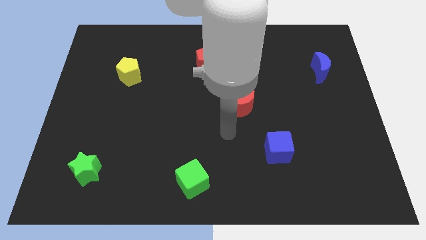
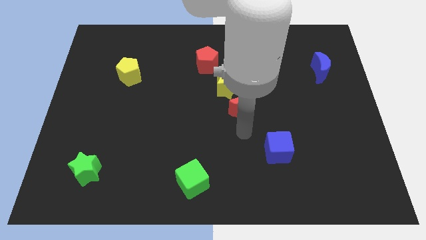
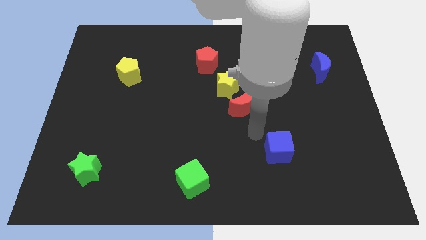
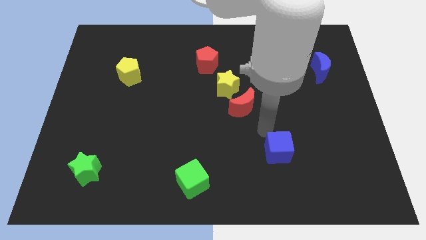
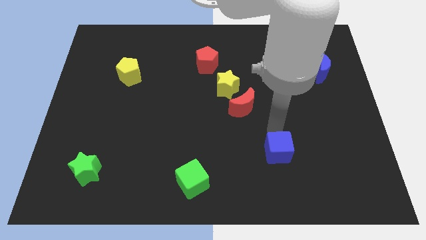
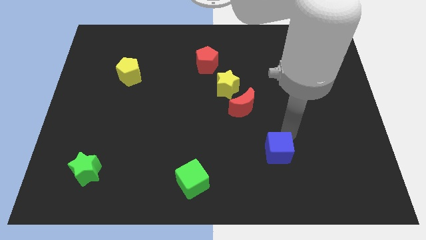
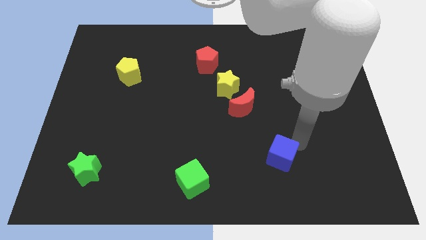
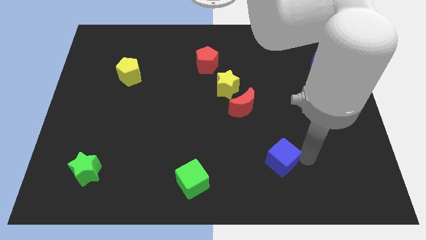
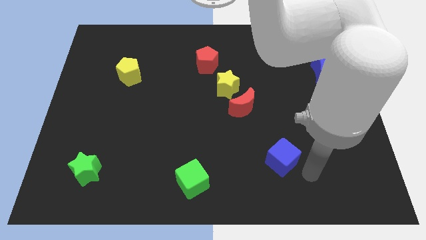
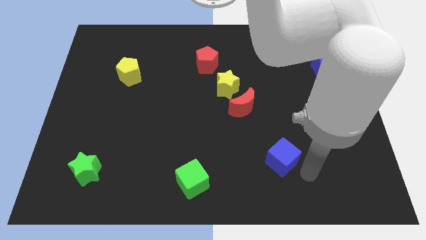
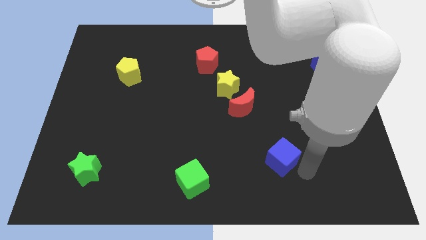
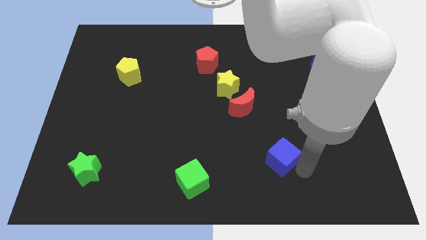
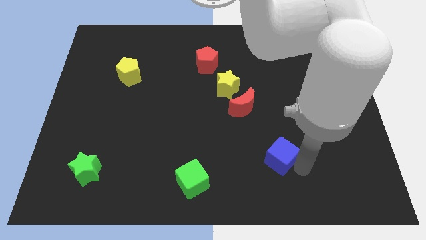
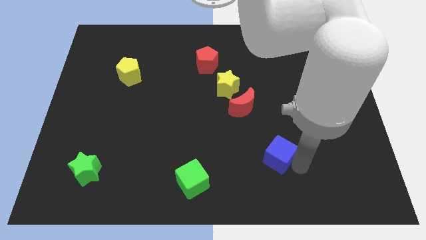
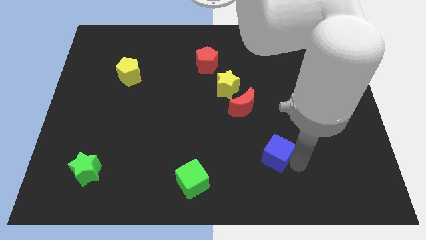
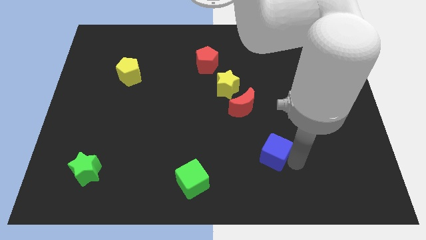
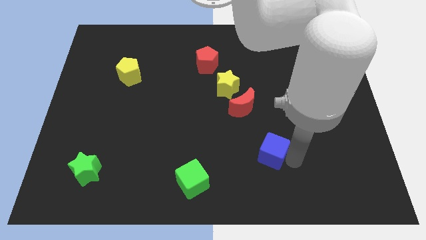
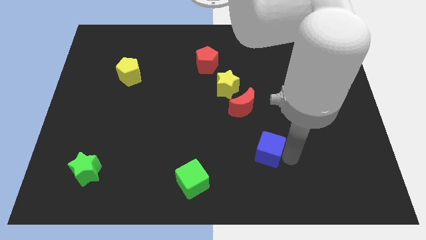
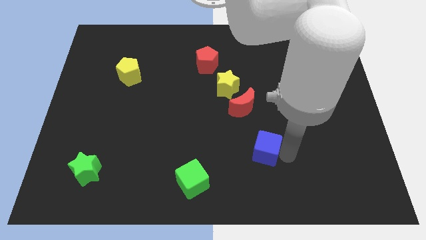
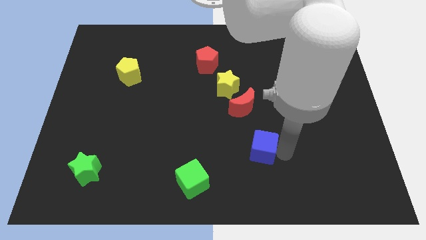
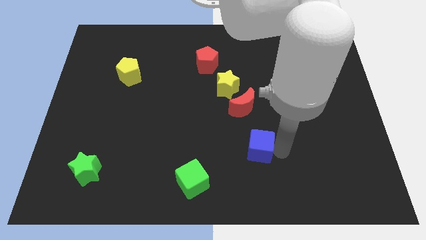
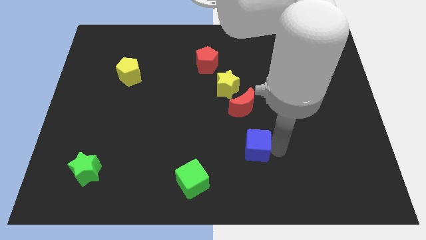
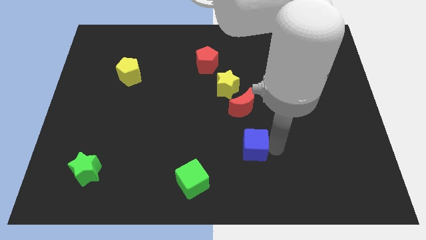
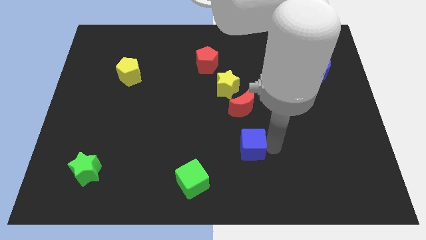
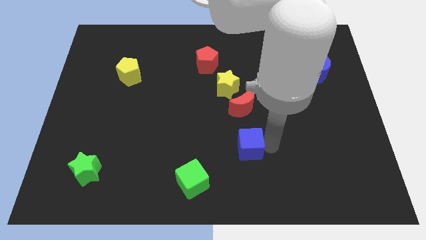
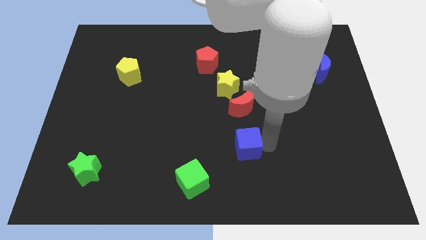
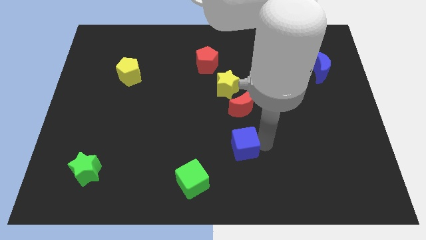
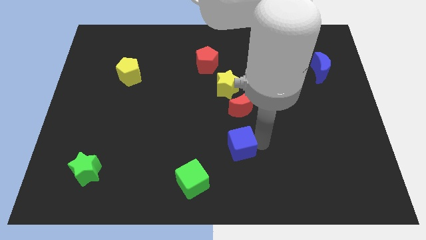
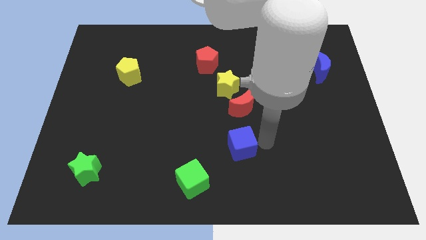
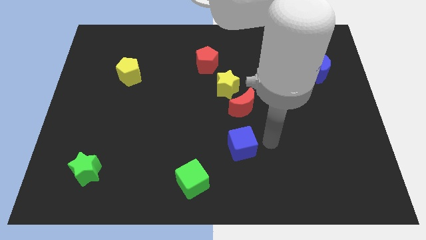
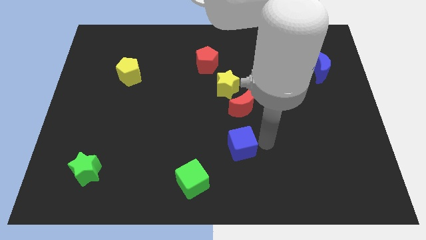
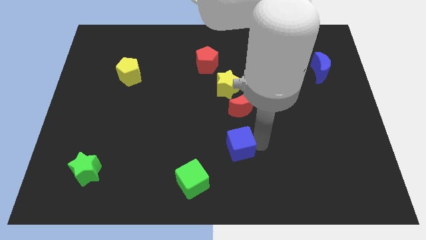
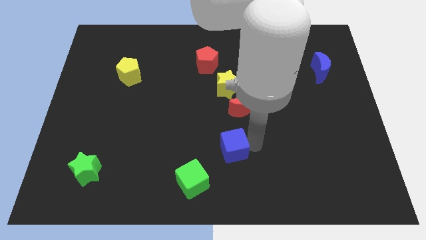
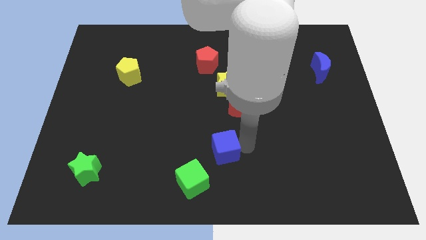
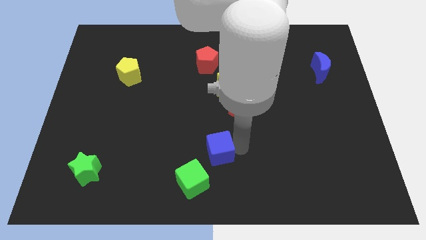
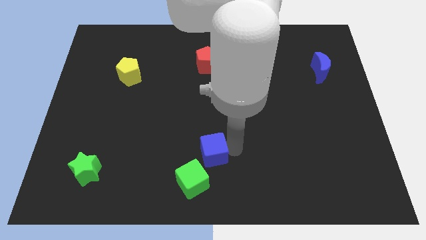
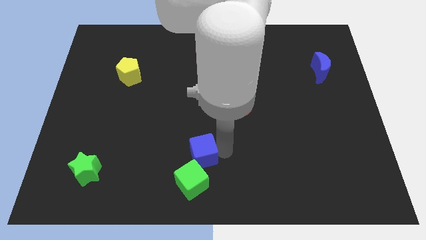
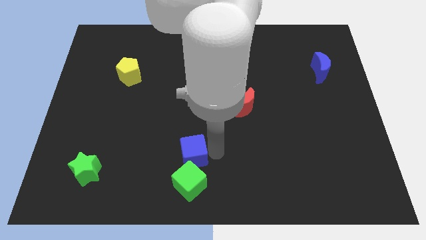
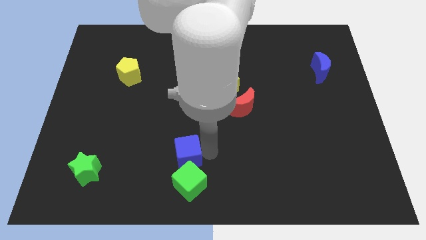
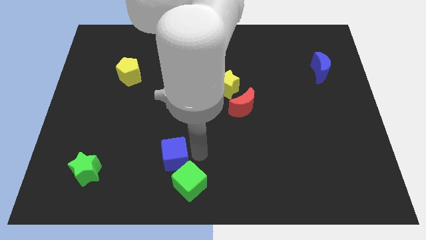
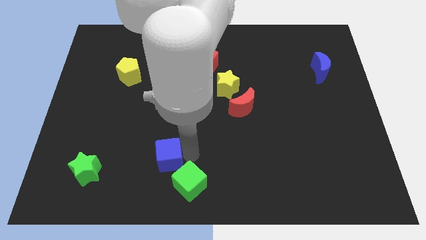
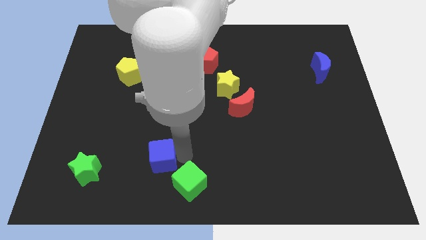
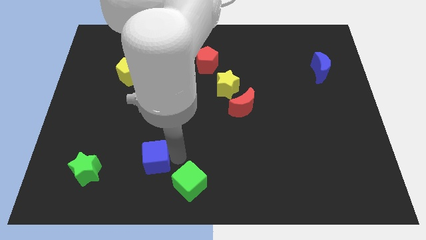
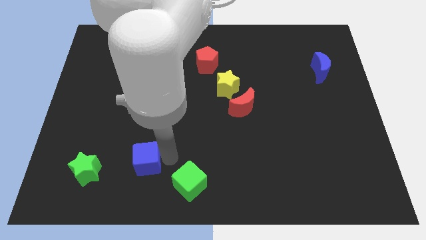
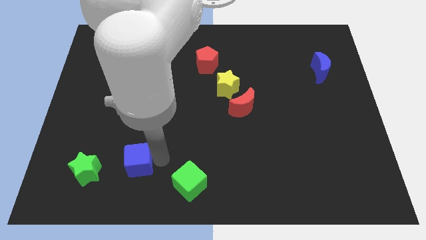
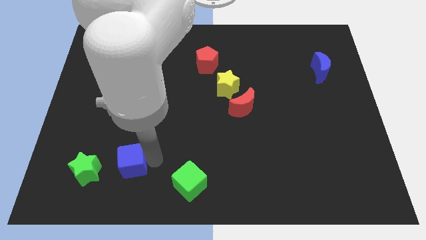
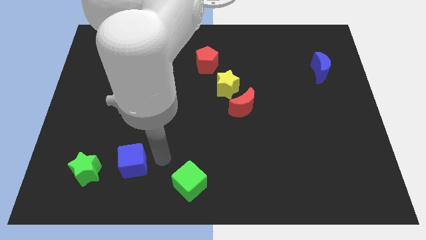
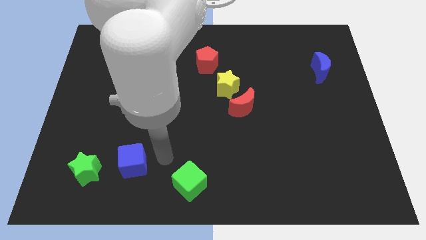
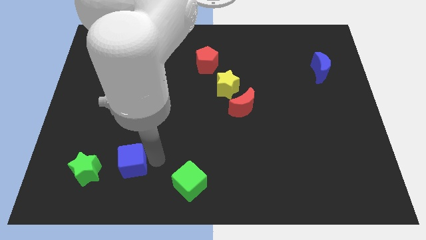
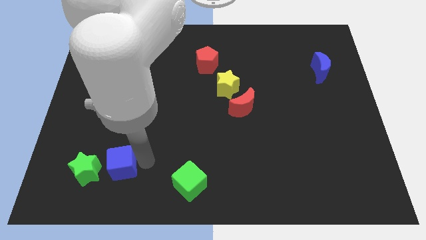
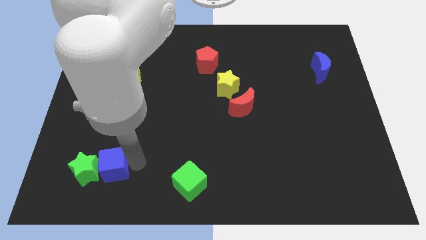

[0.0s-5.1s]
slide the blue cube close to the green star

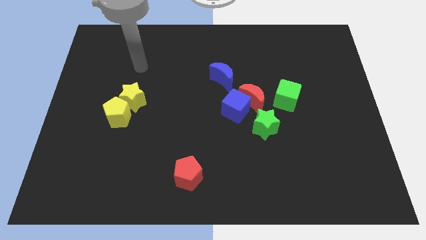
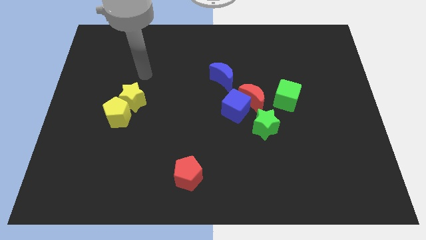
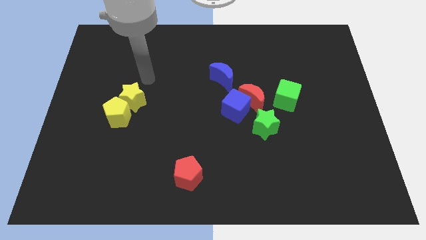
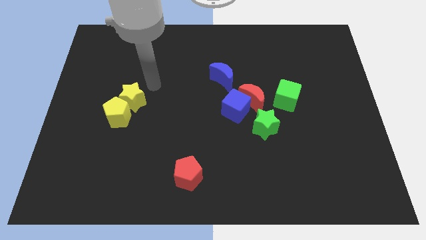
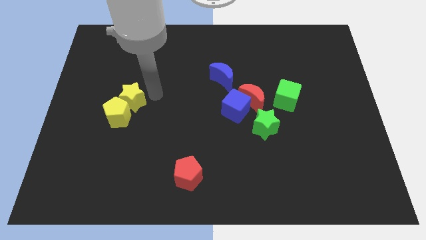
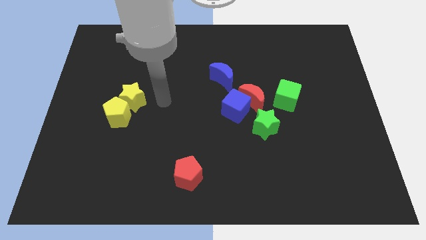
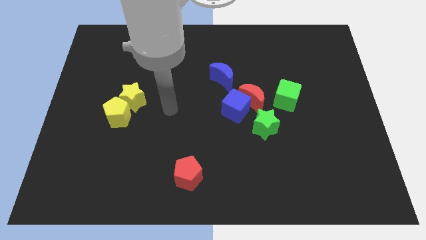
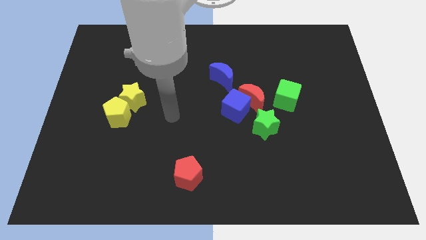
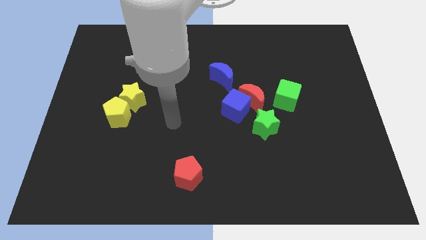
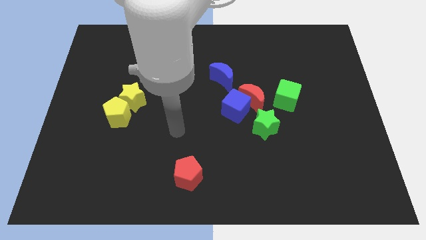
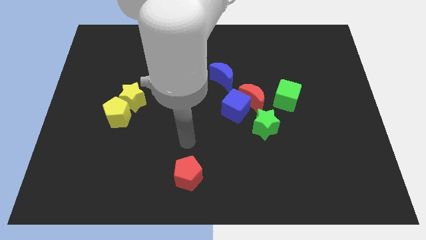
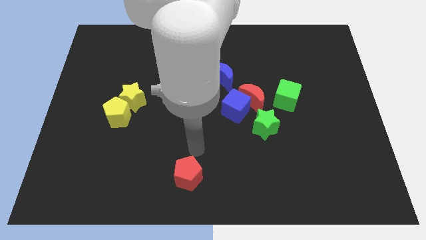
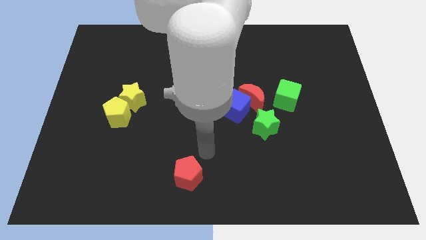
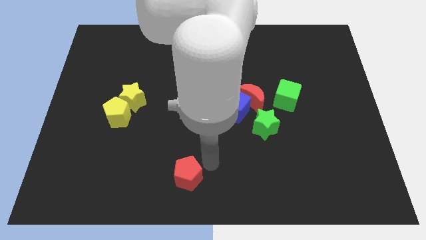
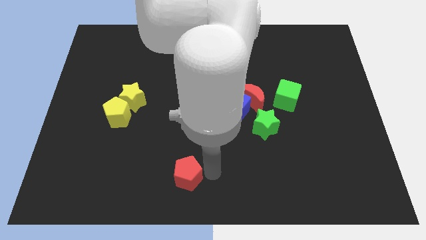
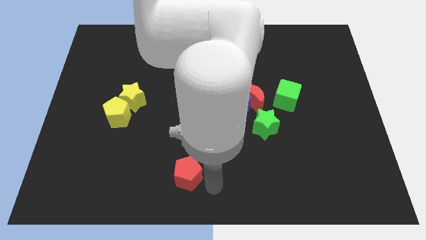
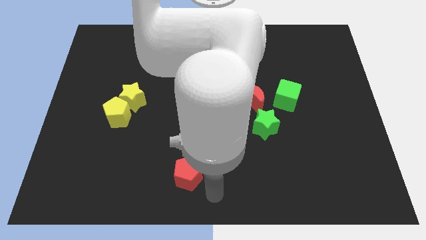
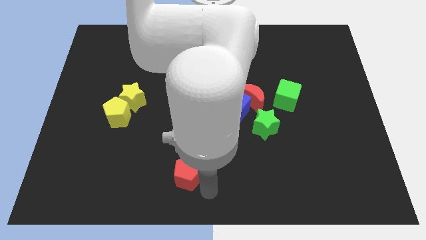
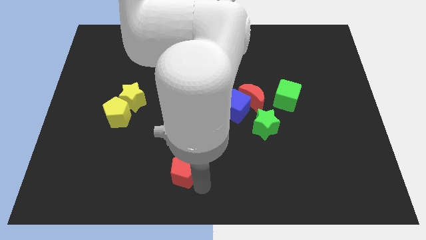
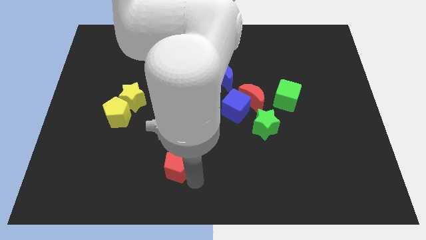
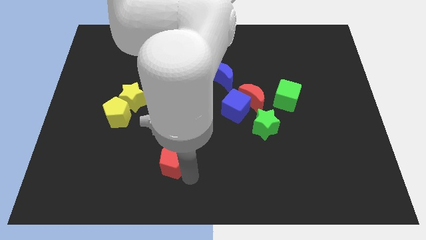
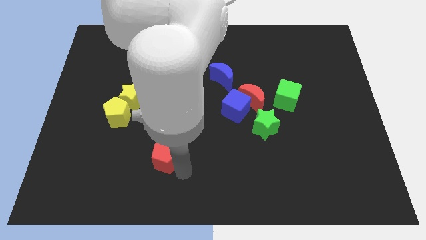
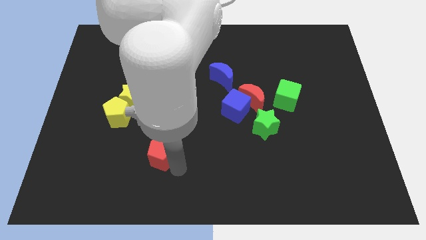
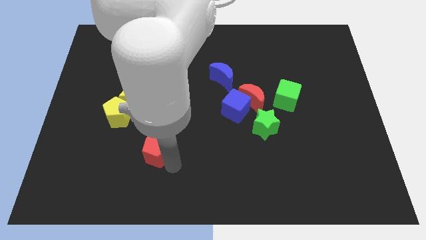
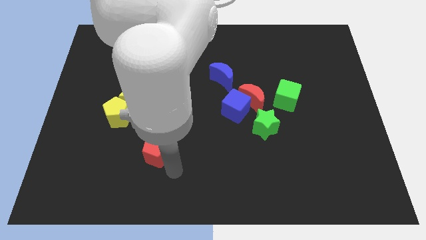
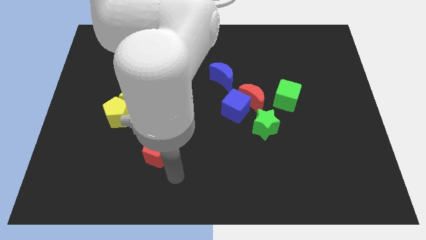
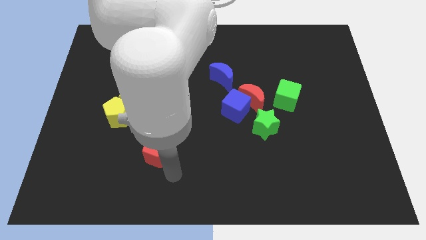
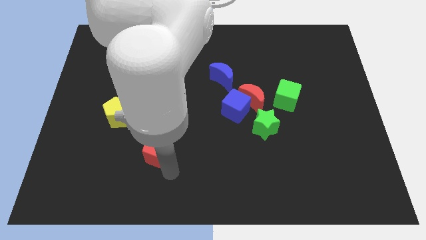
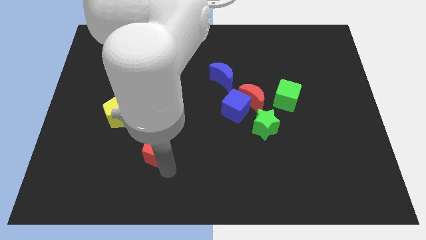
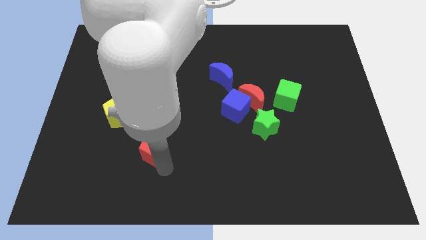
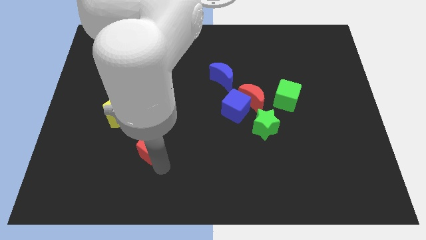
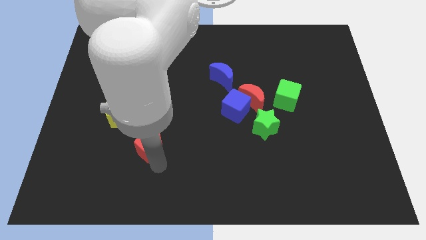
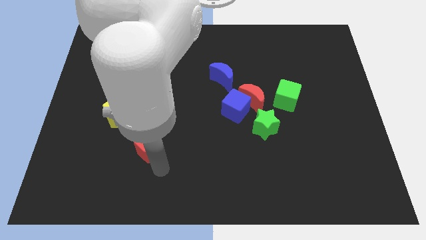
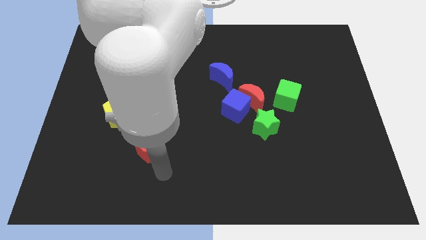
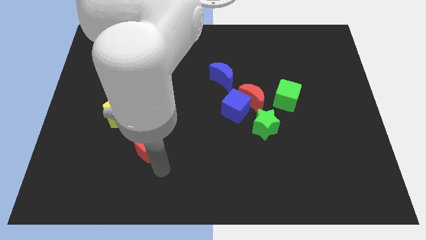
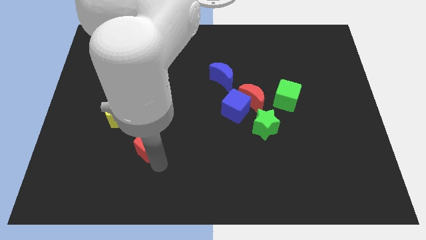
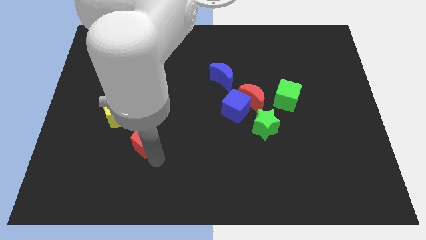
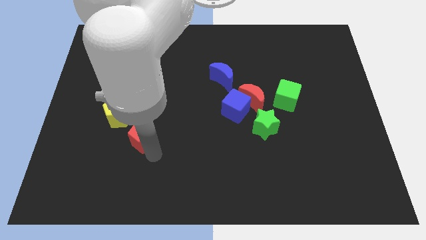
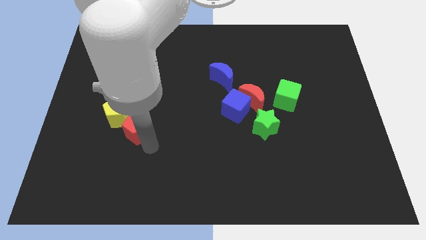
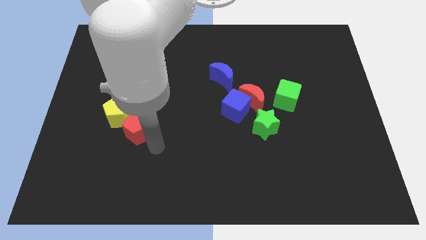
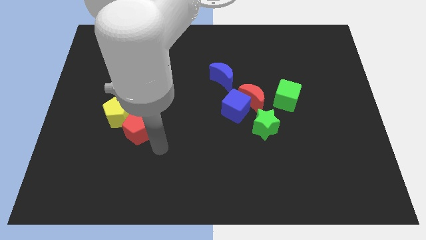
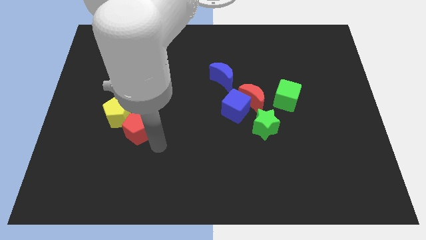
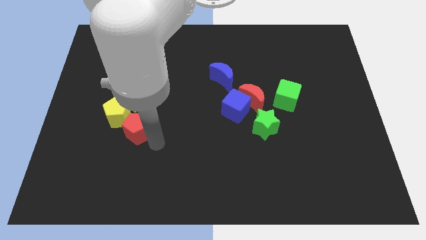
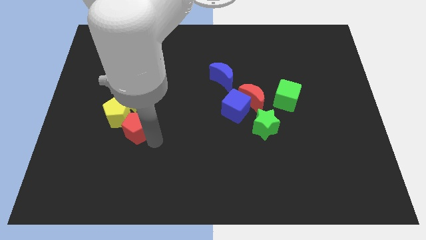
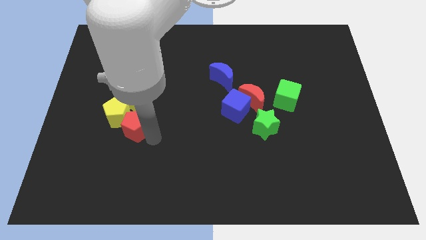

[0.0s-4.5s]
put the red pentagon next to the yellow pentagon
